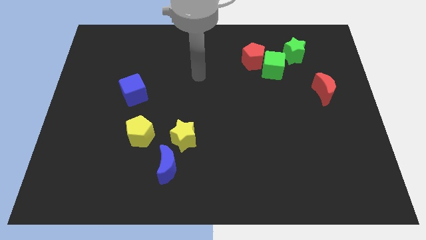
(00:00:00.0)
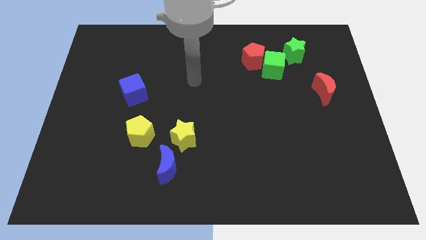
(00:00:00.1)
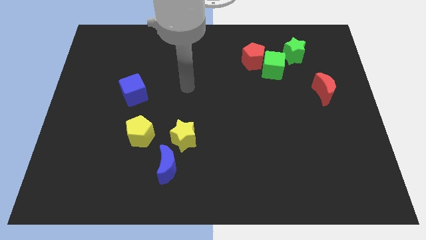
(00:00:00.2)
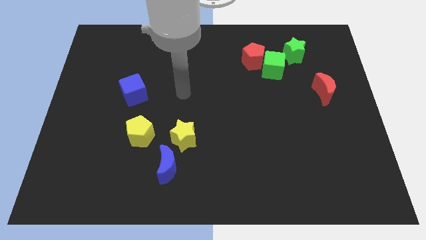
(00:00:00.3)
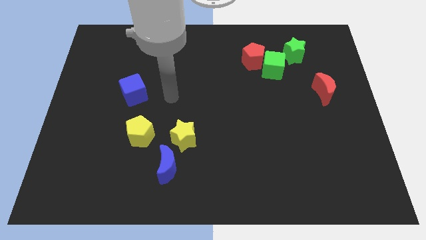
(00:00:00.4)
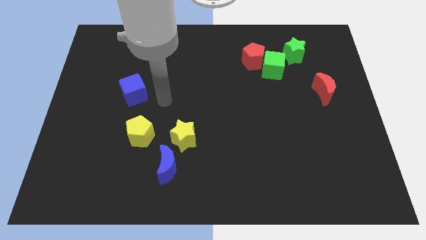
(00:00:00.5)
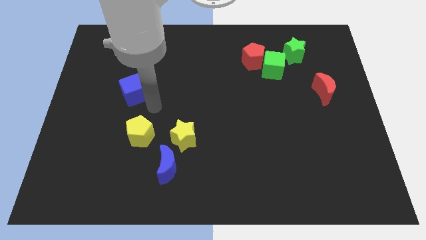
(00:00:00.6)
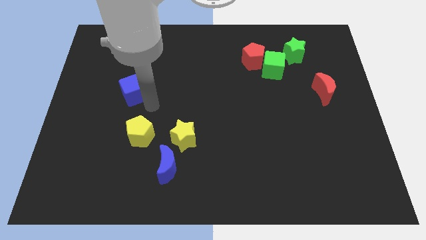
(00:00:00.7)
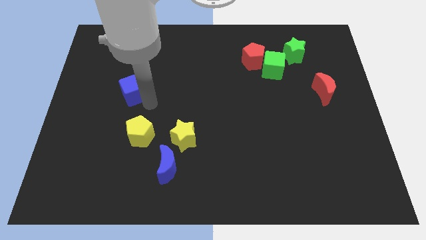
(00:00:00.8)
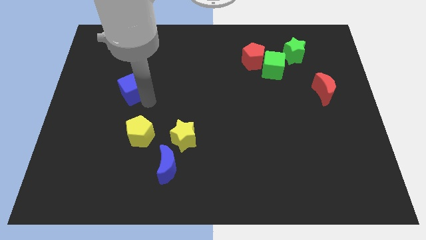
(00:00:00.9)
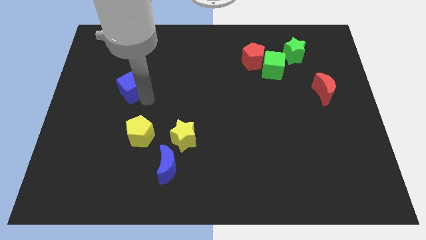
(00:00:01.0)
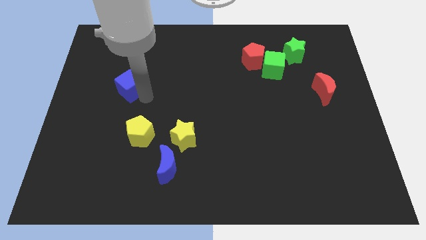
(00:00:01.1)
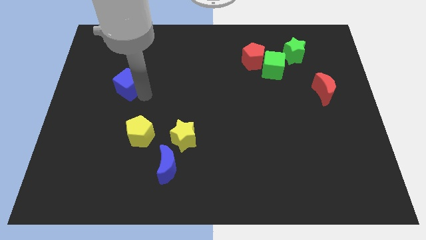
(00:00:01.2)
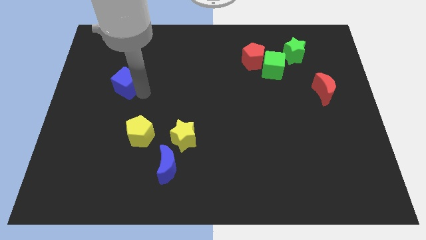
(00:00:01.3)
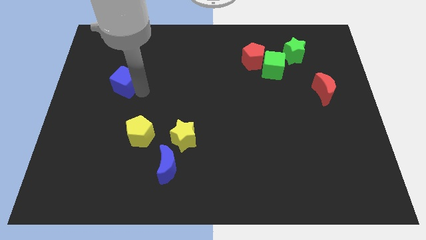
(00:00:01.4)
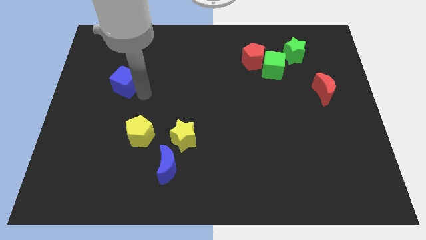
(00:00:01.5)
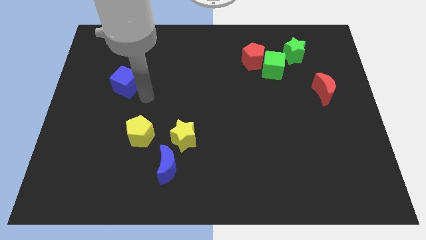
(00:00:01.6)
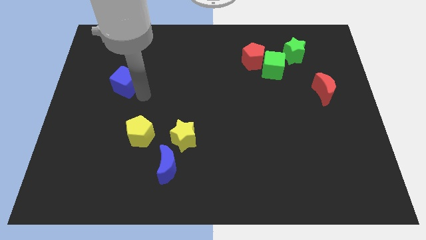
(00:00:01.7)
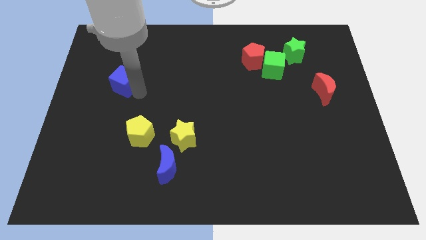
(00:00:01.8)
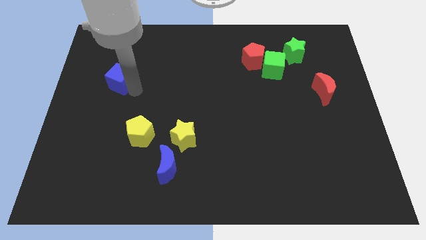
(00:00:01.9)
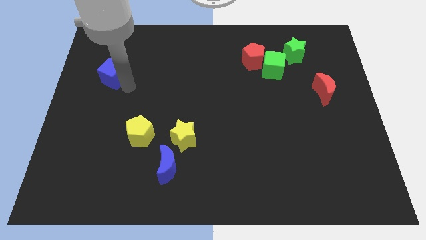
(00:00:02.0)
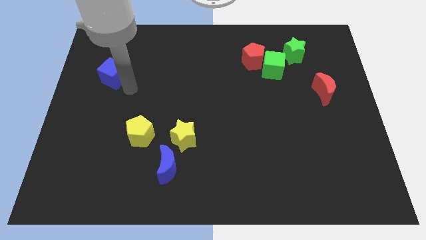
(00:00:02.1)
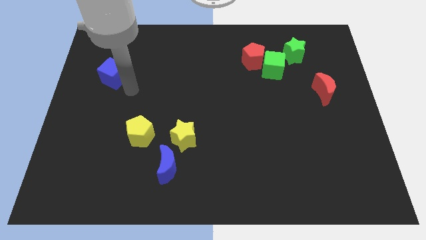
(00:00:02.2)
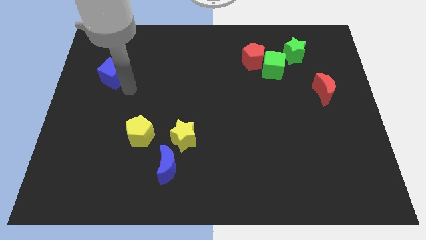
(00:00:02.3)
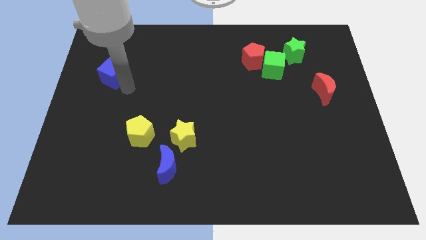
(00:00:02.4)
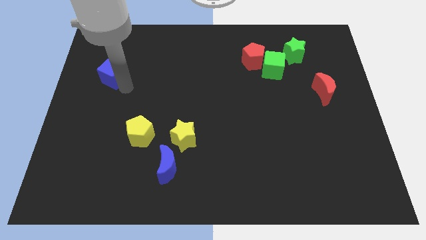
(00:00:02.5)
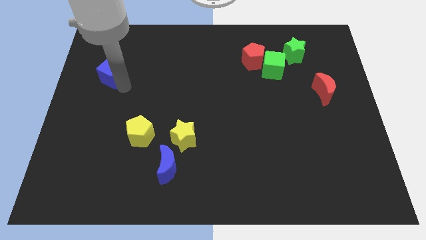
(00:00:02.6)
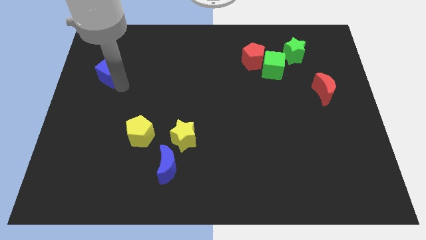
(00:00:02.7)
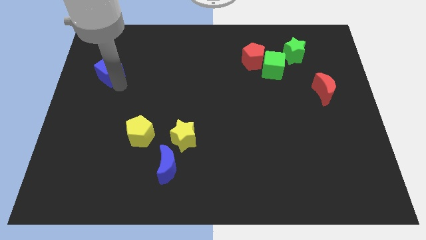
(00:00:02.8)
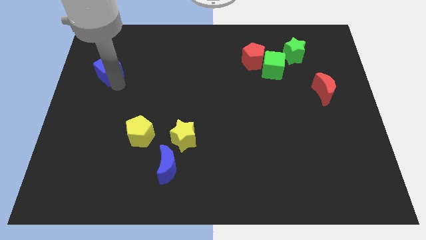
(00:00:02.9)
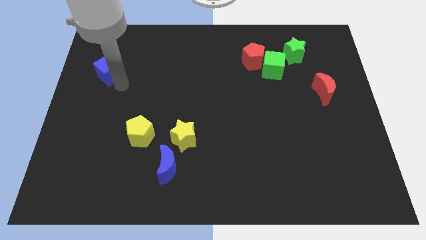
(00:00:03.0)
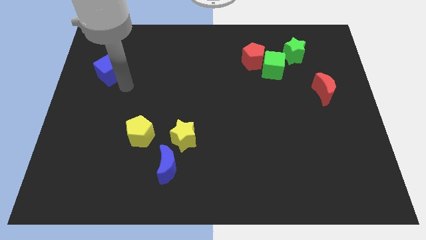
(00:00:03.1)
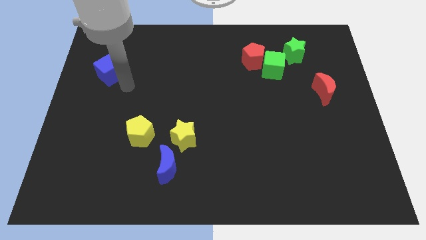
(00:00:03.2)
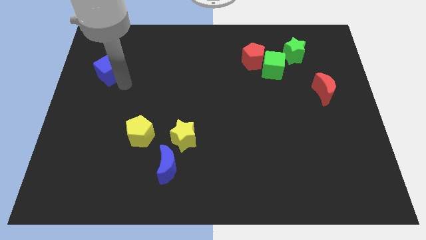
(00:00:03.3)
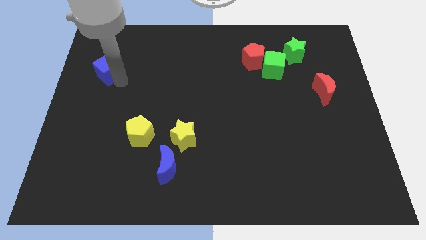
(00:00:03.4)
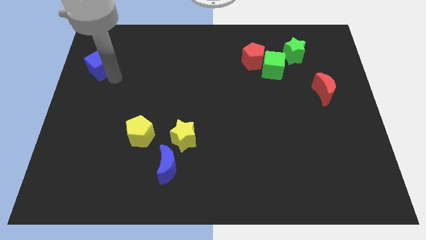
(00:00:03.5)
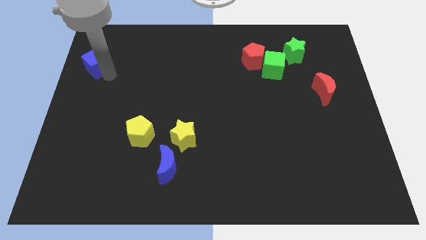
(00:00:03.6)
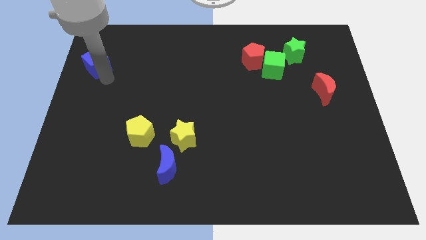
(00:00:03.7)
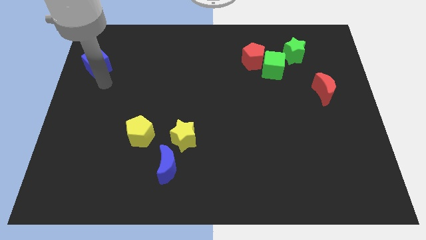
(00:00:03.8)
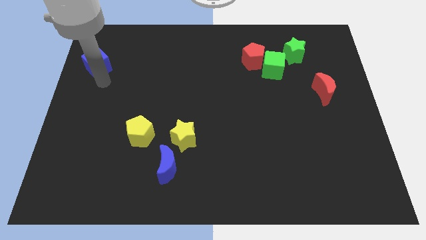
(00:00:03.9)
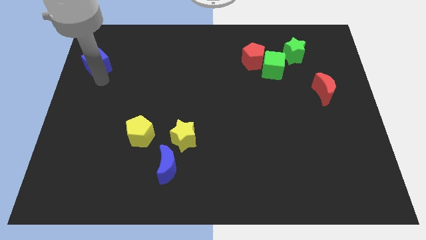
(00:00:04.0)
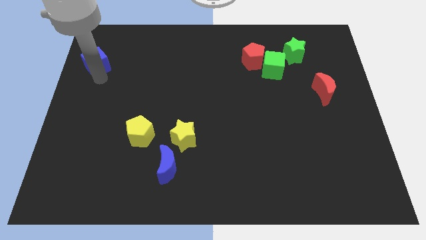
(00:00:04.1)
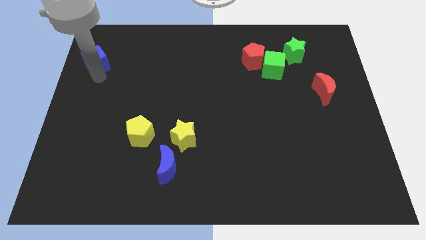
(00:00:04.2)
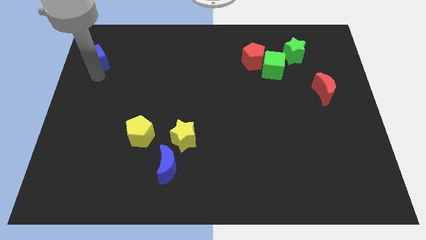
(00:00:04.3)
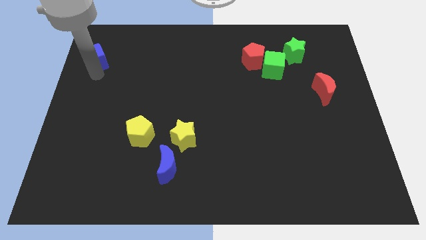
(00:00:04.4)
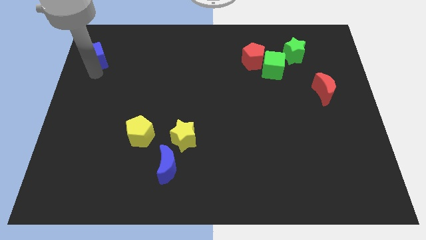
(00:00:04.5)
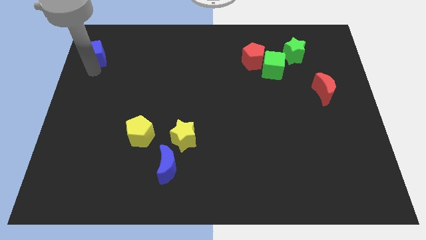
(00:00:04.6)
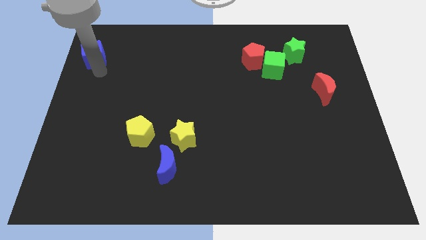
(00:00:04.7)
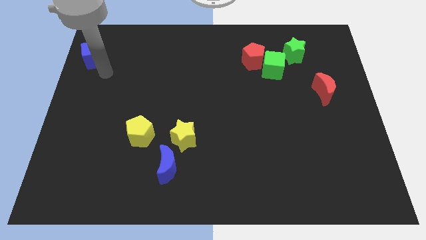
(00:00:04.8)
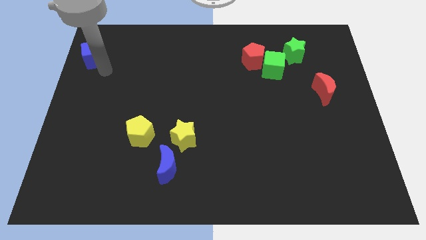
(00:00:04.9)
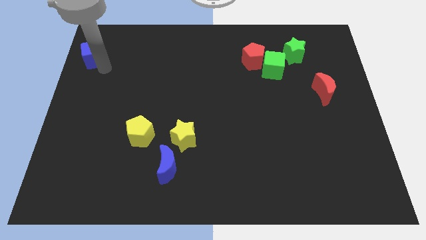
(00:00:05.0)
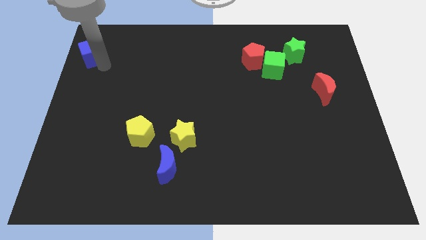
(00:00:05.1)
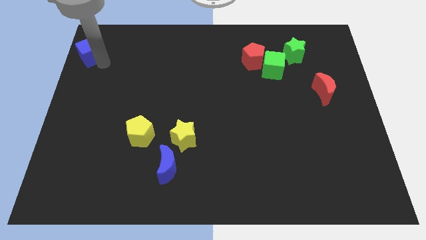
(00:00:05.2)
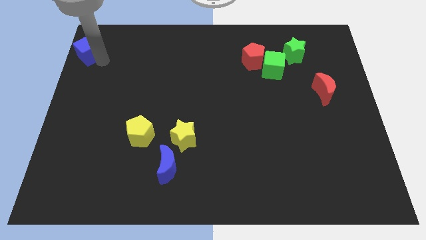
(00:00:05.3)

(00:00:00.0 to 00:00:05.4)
move the blue cube to the top left corner
